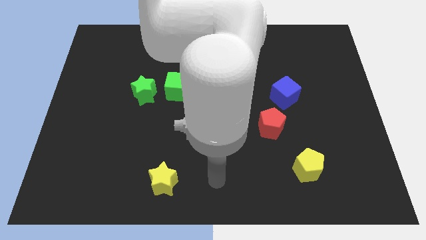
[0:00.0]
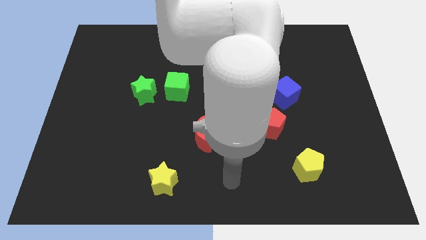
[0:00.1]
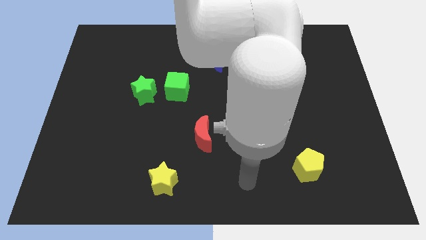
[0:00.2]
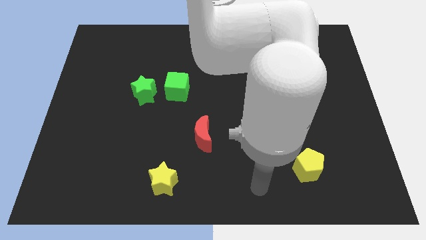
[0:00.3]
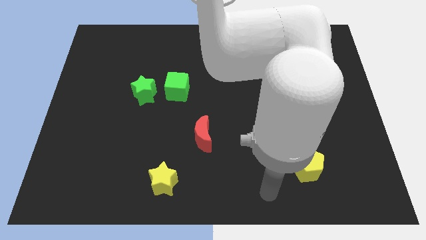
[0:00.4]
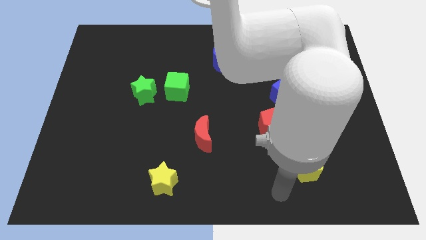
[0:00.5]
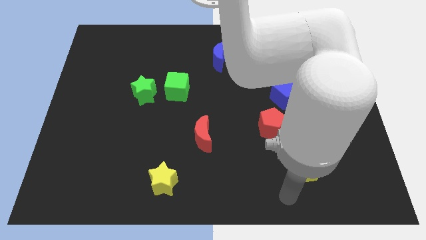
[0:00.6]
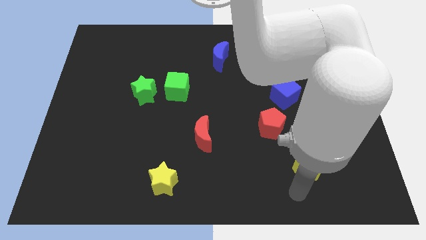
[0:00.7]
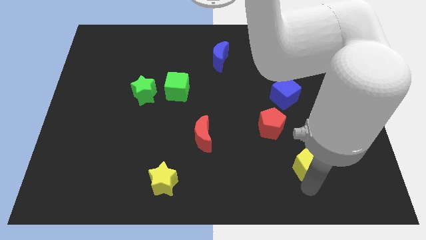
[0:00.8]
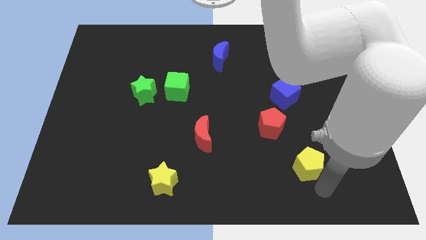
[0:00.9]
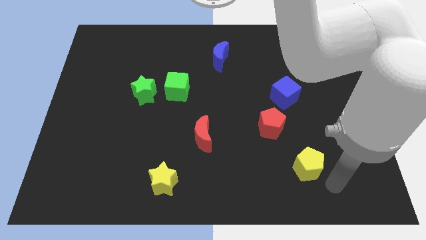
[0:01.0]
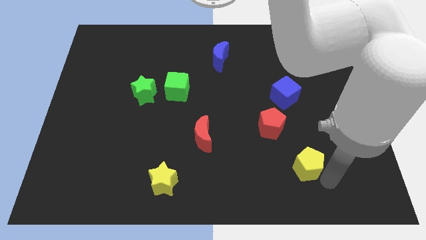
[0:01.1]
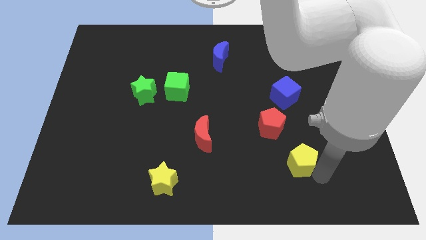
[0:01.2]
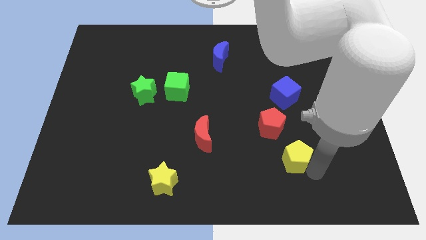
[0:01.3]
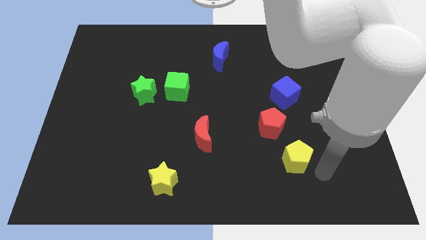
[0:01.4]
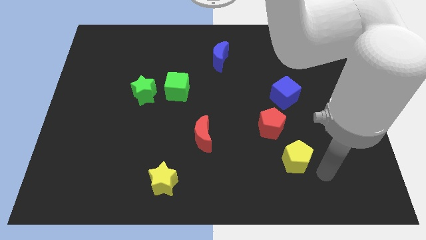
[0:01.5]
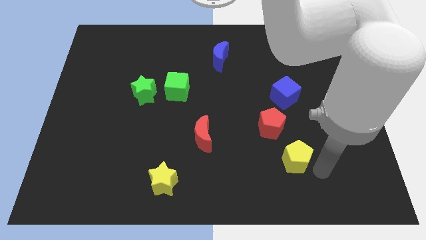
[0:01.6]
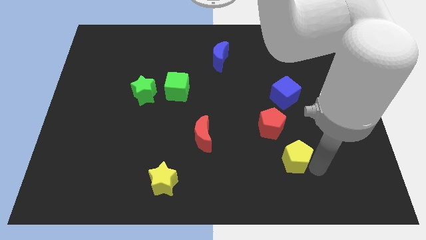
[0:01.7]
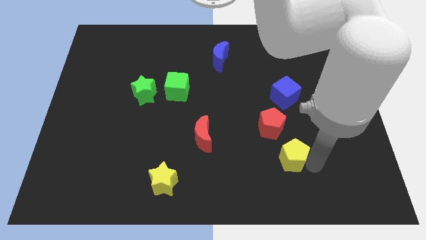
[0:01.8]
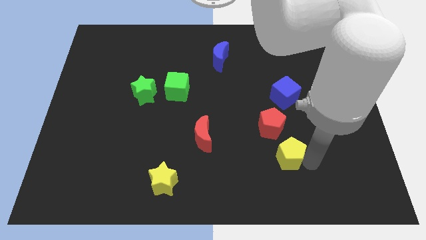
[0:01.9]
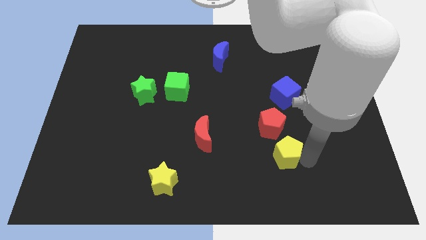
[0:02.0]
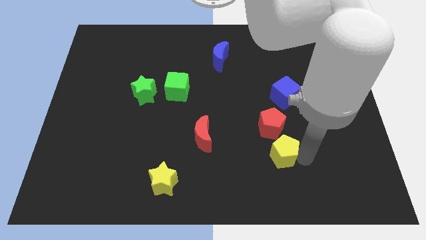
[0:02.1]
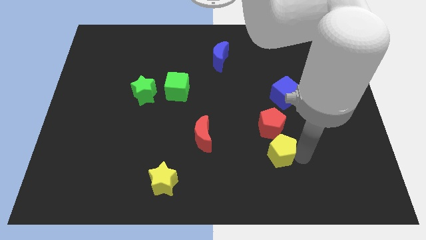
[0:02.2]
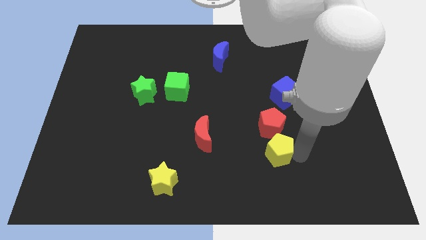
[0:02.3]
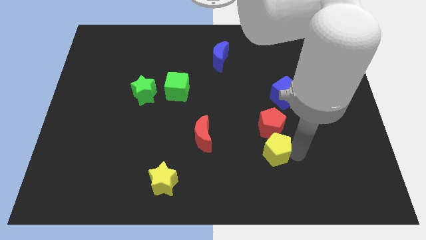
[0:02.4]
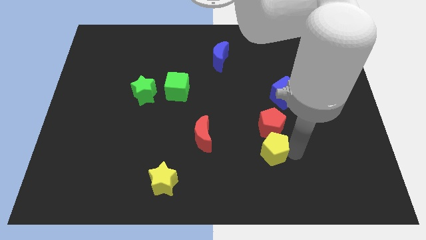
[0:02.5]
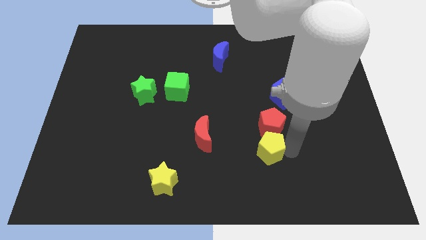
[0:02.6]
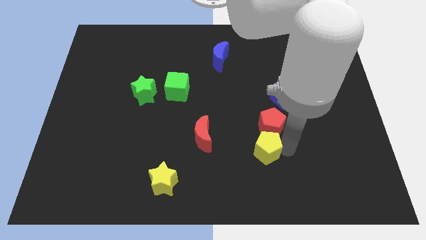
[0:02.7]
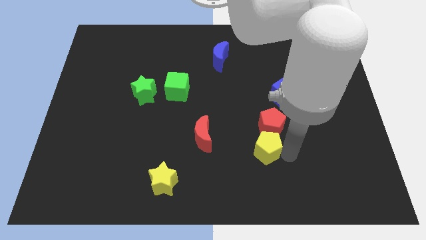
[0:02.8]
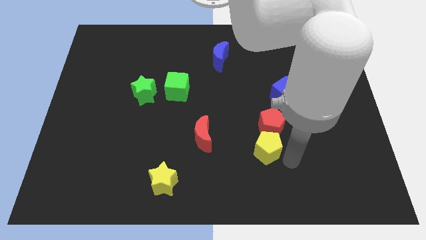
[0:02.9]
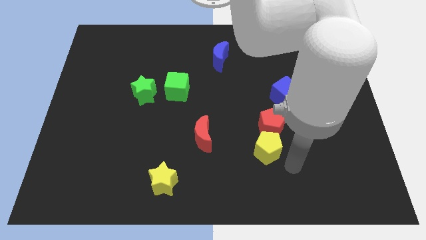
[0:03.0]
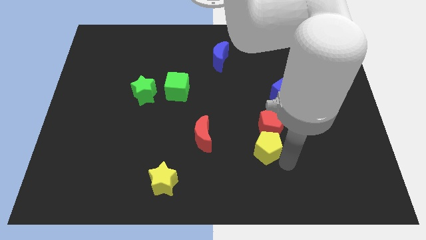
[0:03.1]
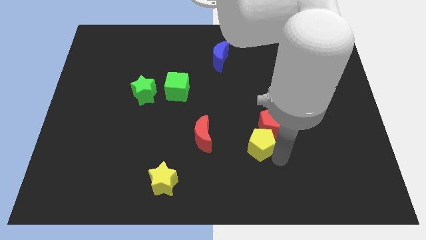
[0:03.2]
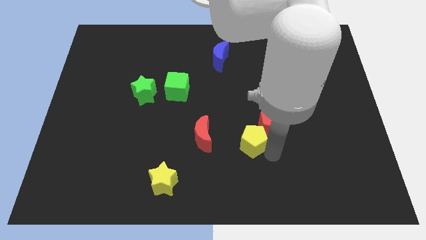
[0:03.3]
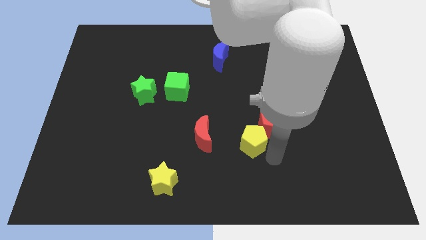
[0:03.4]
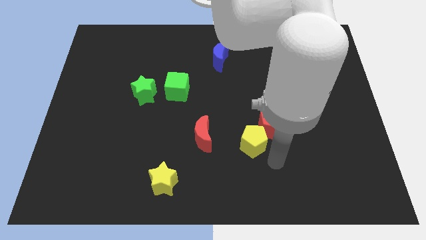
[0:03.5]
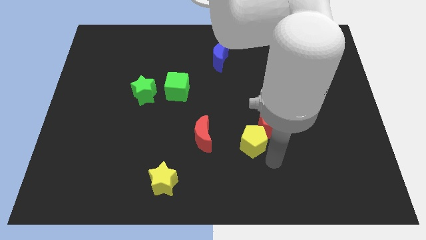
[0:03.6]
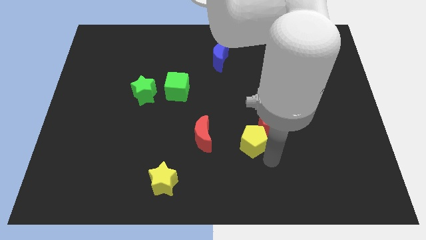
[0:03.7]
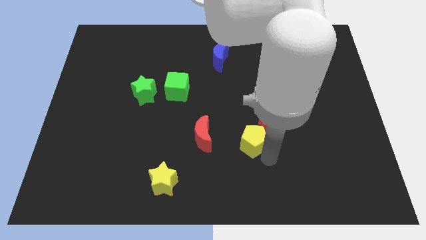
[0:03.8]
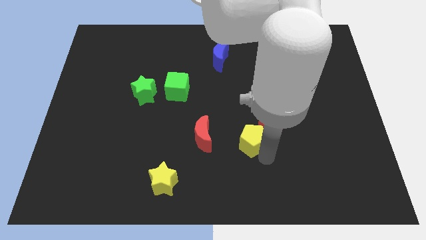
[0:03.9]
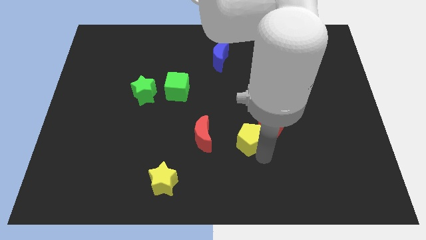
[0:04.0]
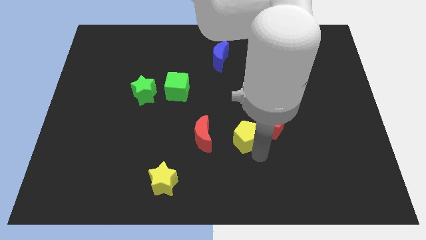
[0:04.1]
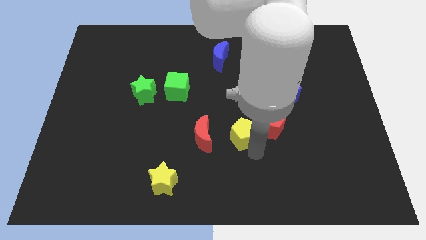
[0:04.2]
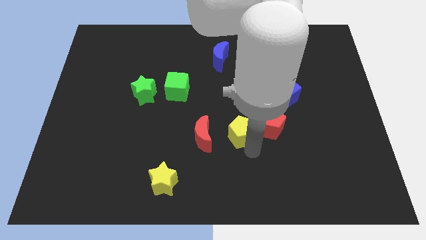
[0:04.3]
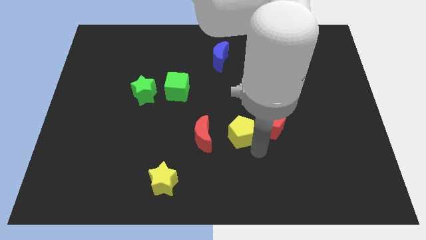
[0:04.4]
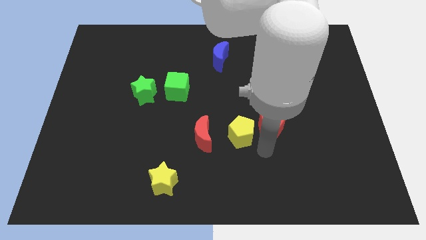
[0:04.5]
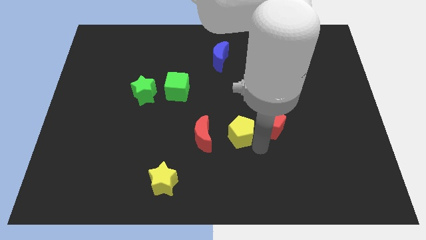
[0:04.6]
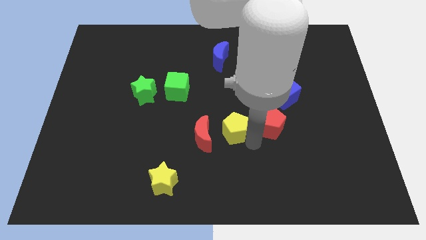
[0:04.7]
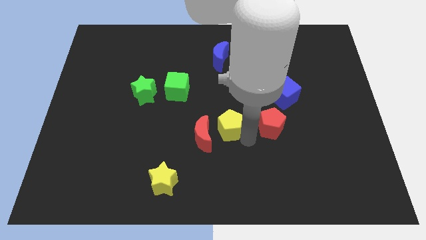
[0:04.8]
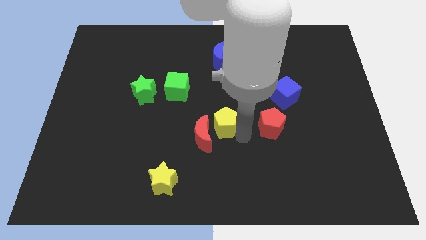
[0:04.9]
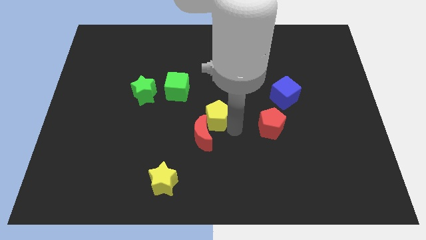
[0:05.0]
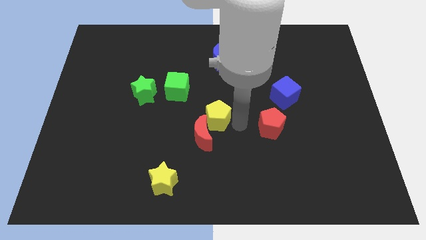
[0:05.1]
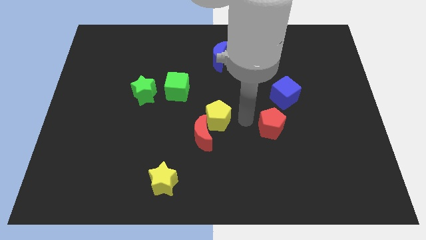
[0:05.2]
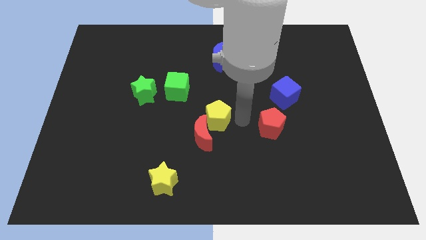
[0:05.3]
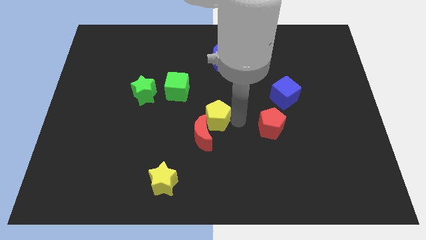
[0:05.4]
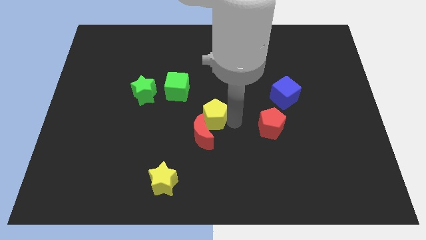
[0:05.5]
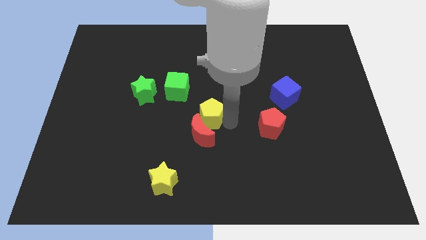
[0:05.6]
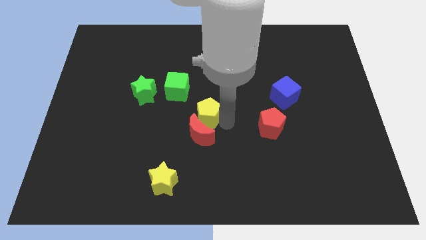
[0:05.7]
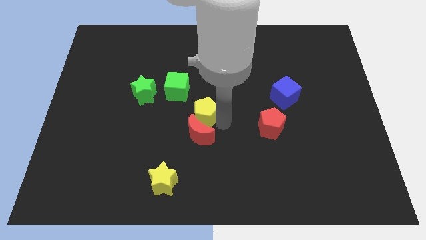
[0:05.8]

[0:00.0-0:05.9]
move the yellow pentagon to the top left side of the red moon

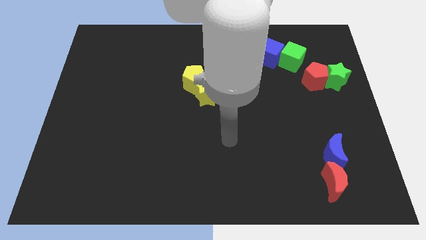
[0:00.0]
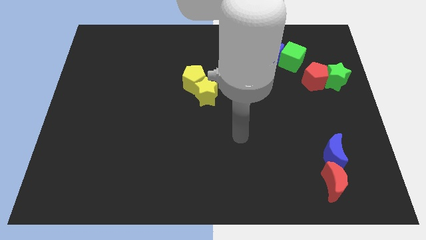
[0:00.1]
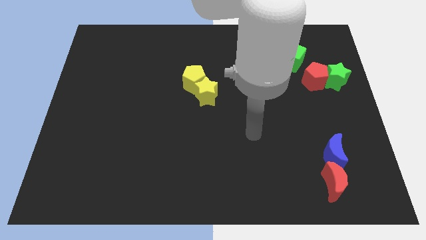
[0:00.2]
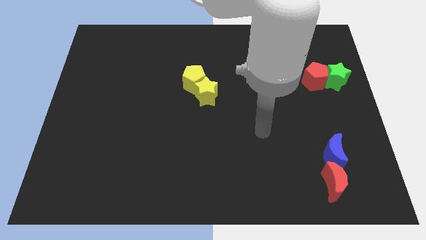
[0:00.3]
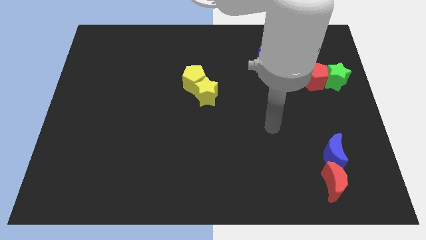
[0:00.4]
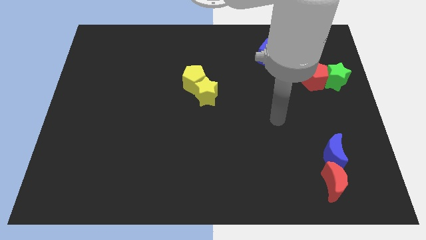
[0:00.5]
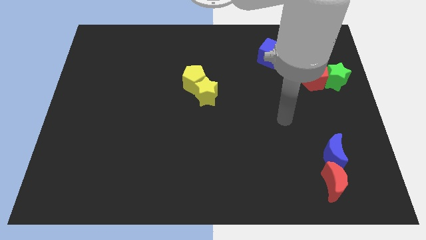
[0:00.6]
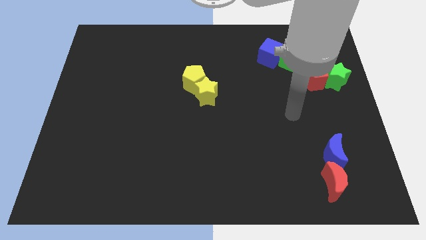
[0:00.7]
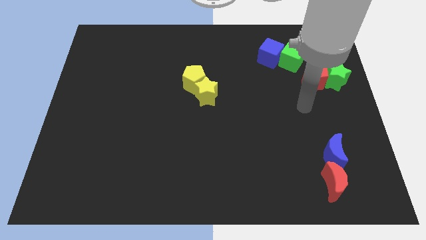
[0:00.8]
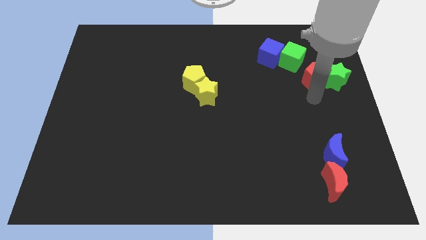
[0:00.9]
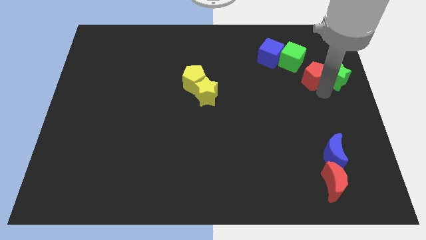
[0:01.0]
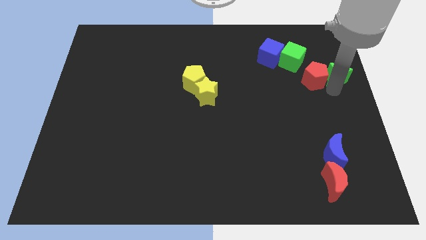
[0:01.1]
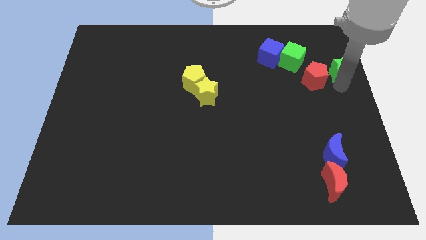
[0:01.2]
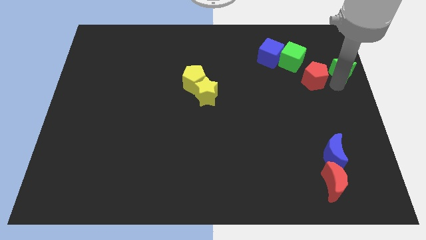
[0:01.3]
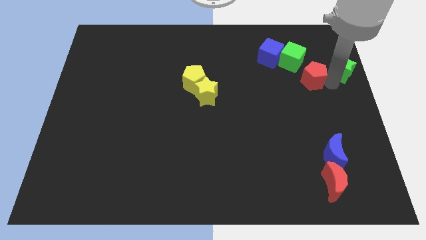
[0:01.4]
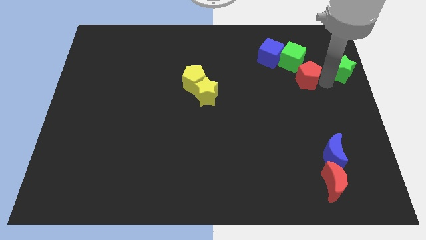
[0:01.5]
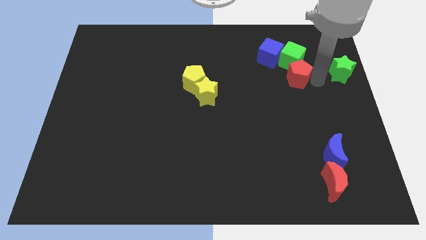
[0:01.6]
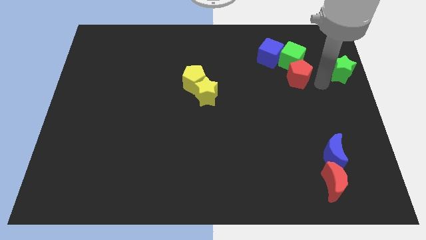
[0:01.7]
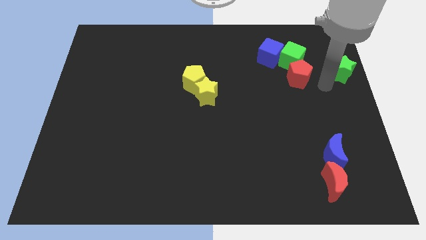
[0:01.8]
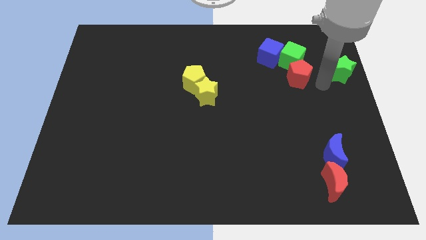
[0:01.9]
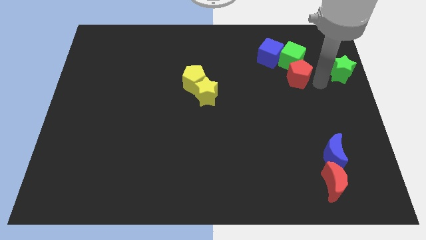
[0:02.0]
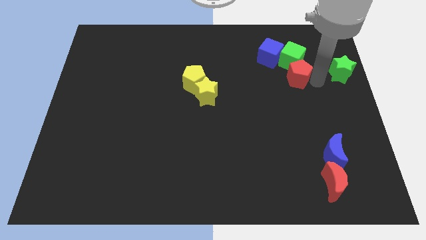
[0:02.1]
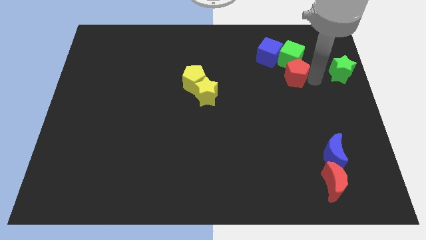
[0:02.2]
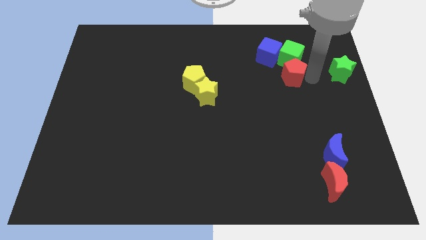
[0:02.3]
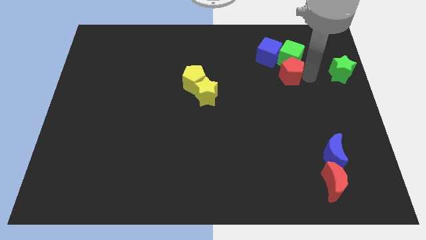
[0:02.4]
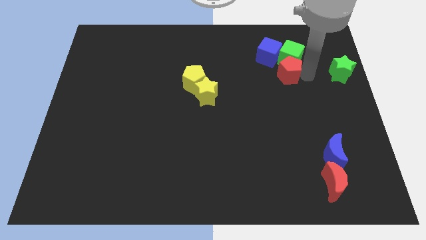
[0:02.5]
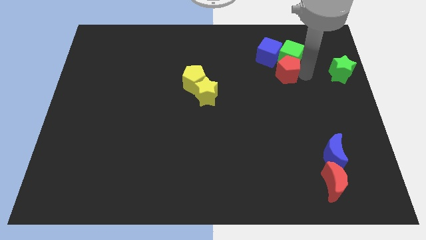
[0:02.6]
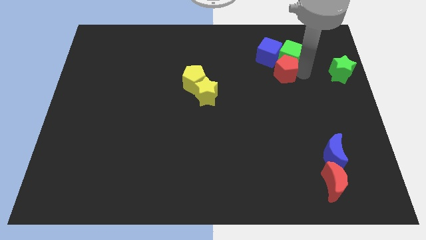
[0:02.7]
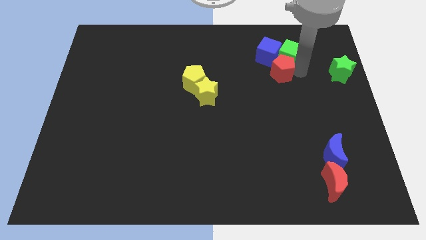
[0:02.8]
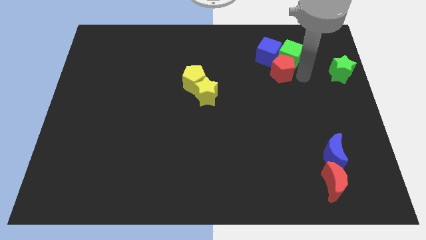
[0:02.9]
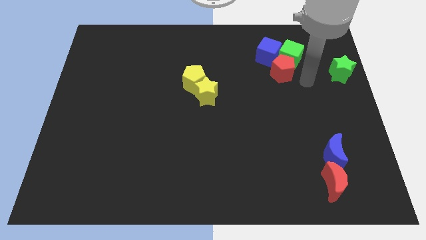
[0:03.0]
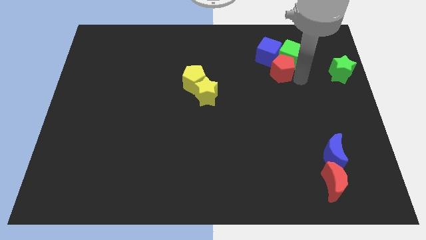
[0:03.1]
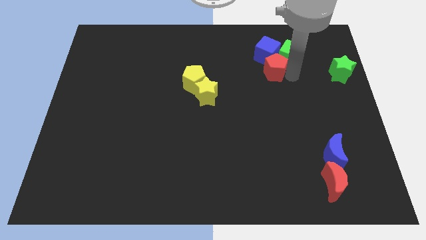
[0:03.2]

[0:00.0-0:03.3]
move the red pentagon to the left side of the green cube
